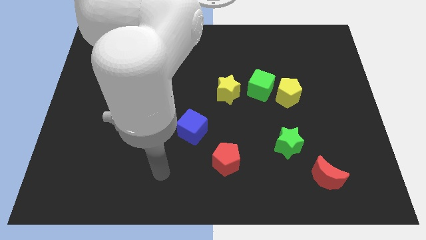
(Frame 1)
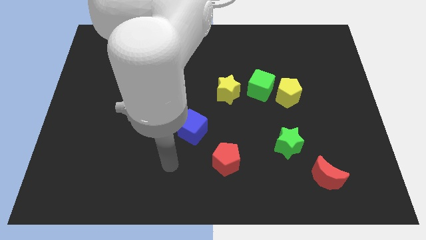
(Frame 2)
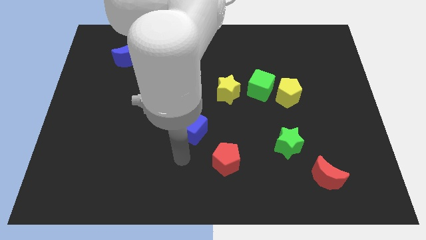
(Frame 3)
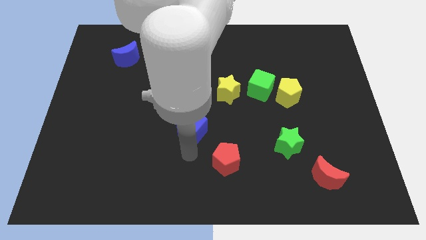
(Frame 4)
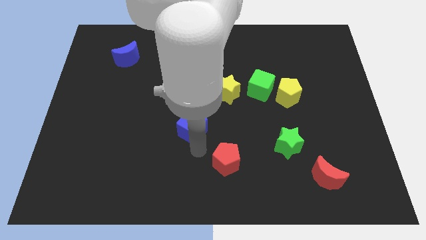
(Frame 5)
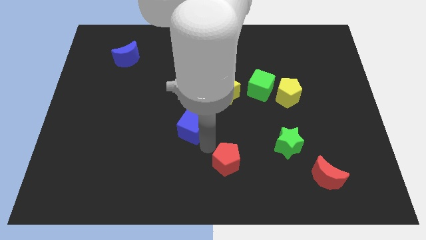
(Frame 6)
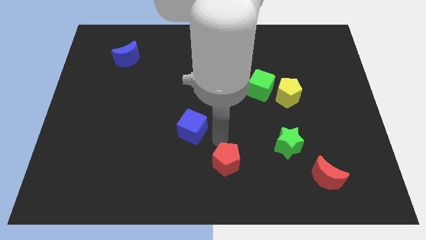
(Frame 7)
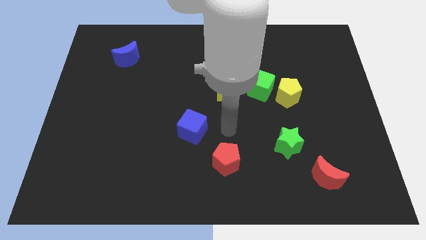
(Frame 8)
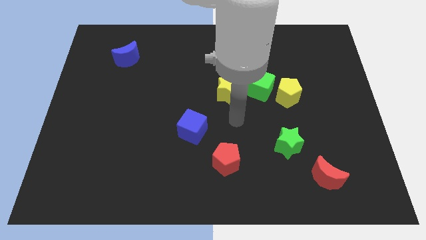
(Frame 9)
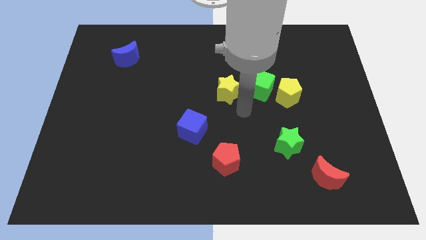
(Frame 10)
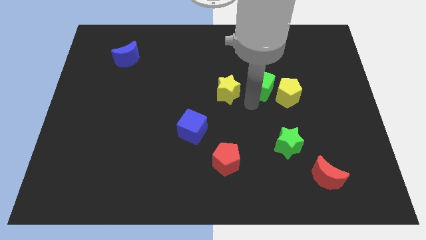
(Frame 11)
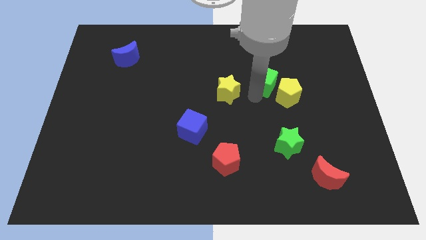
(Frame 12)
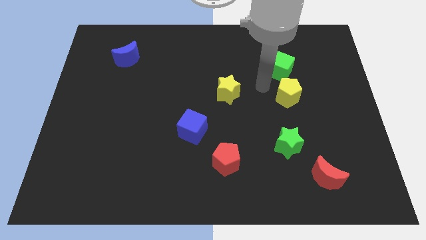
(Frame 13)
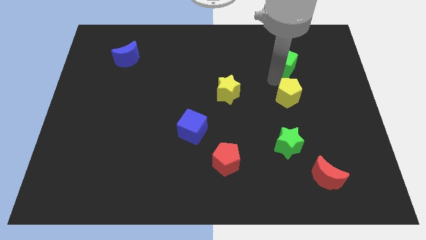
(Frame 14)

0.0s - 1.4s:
pull the yellow pentagon apart from the green cube

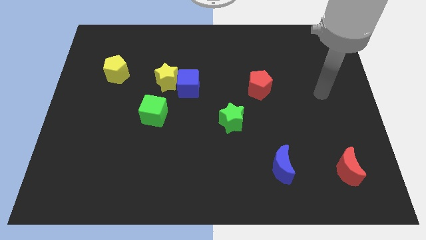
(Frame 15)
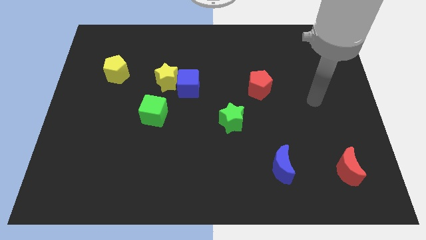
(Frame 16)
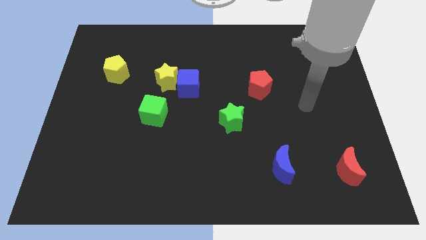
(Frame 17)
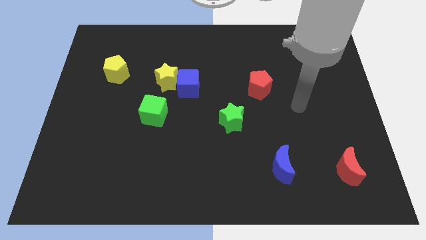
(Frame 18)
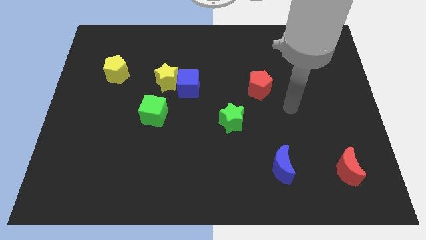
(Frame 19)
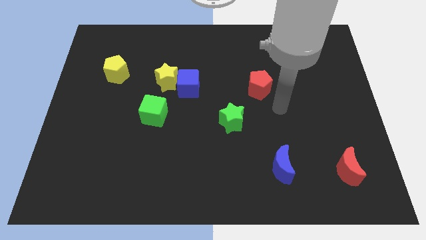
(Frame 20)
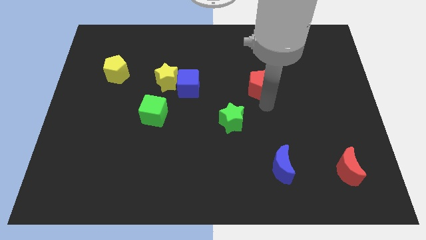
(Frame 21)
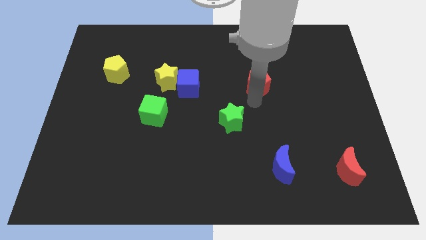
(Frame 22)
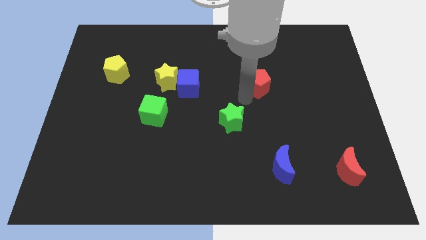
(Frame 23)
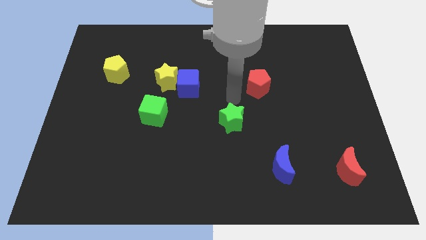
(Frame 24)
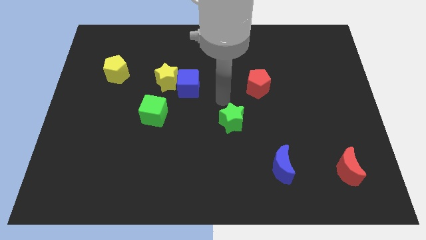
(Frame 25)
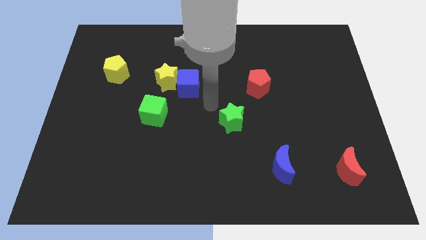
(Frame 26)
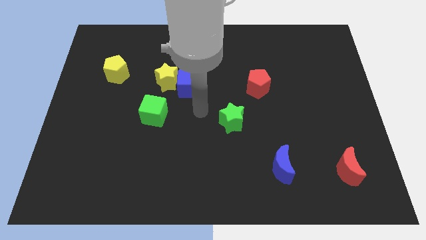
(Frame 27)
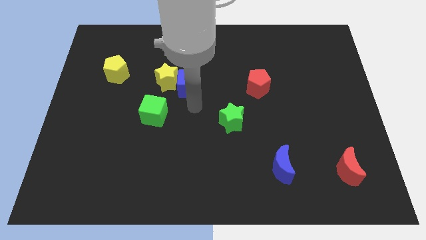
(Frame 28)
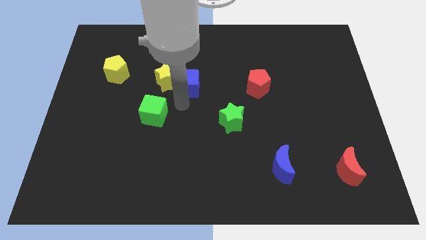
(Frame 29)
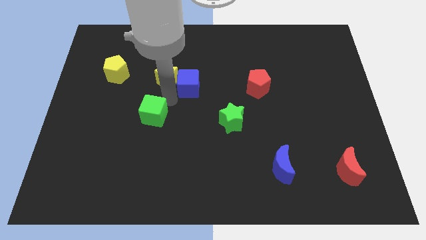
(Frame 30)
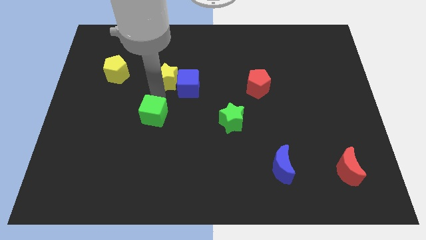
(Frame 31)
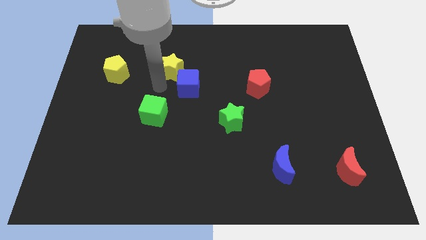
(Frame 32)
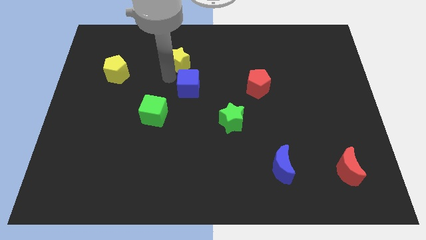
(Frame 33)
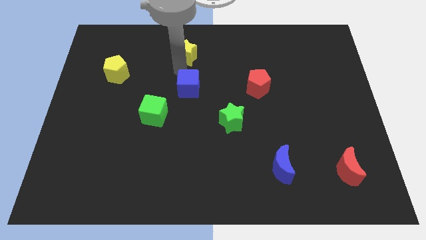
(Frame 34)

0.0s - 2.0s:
move the blue cube away from the yellow star

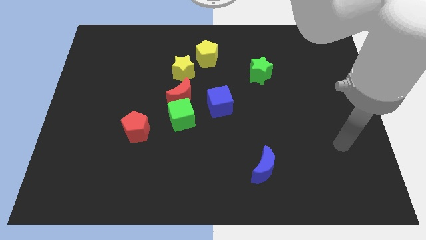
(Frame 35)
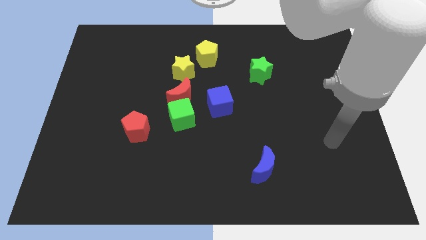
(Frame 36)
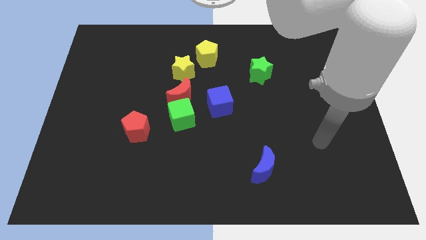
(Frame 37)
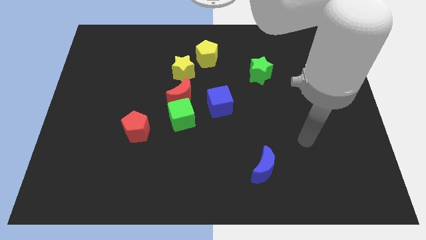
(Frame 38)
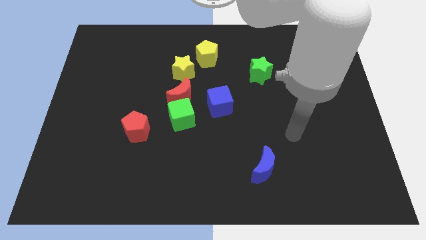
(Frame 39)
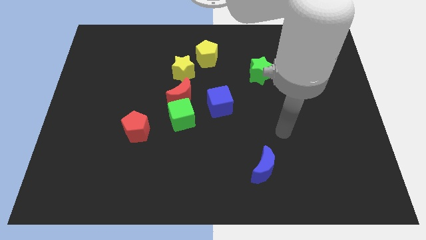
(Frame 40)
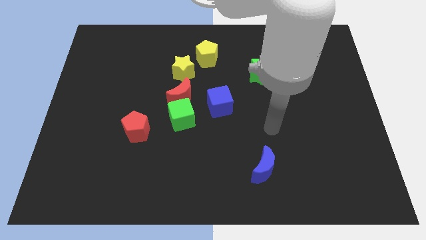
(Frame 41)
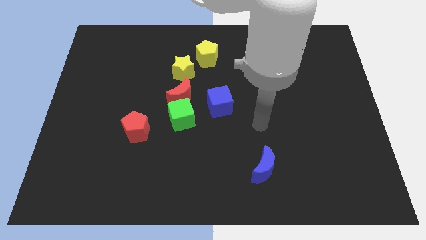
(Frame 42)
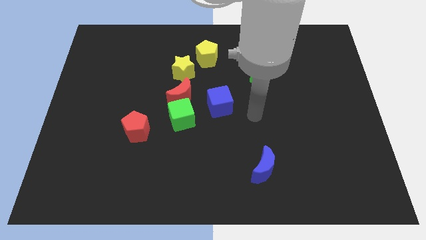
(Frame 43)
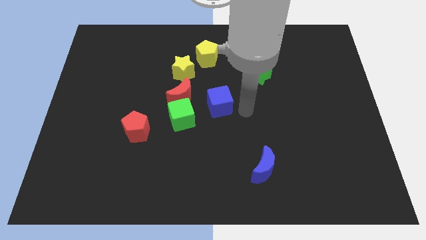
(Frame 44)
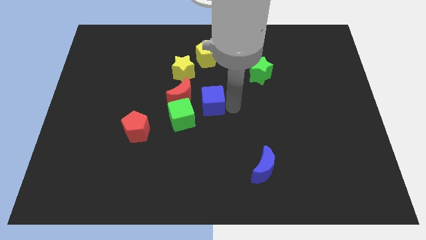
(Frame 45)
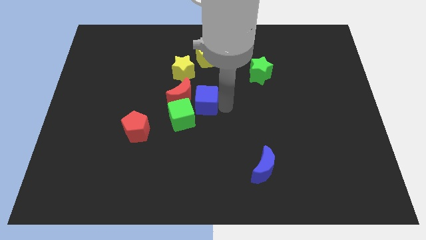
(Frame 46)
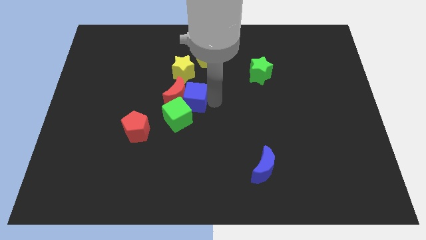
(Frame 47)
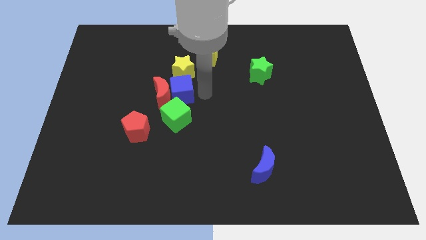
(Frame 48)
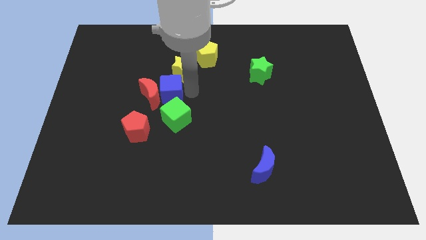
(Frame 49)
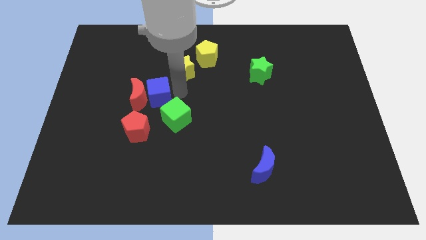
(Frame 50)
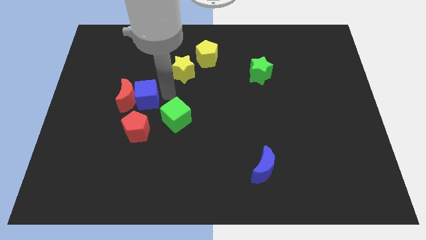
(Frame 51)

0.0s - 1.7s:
pull the red moon apart from the green cube, yellow star, and blue cube

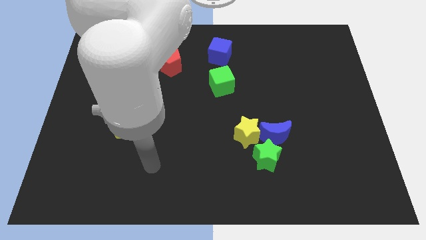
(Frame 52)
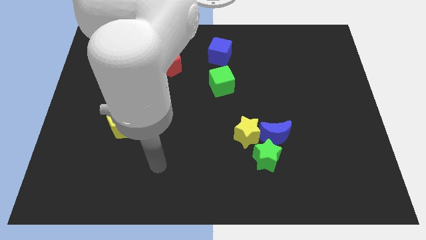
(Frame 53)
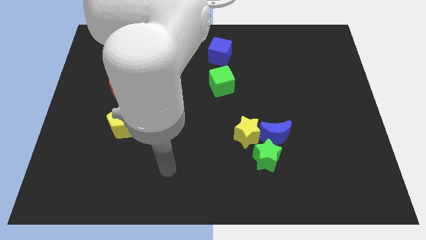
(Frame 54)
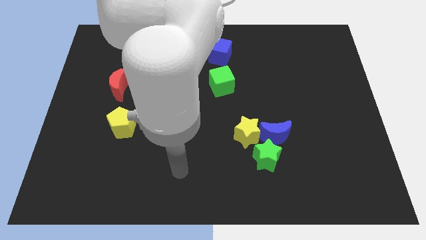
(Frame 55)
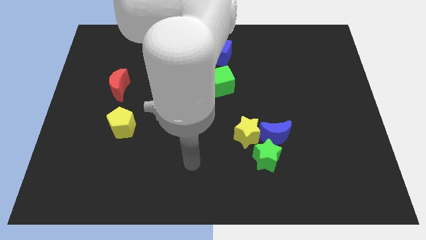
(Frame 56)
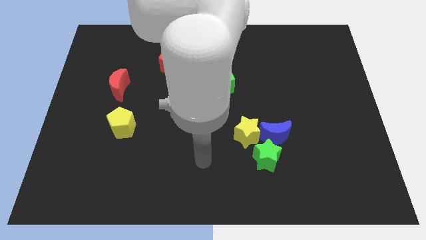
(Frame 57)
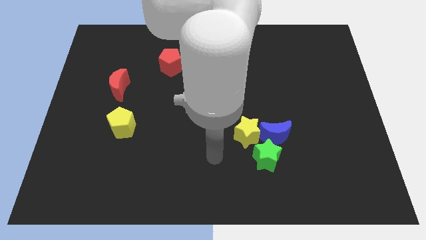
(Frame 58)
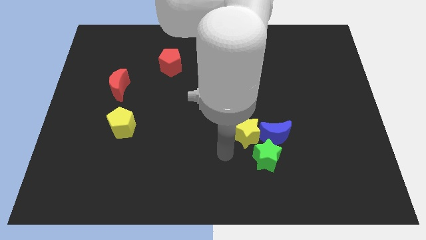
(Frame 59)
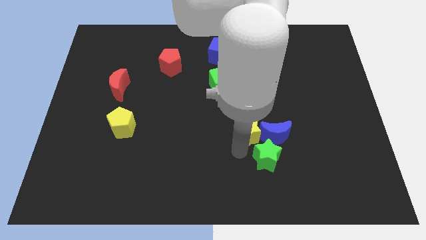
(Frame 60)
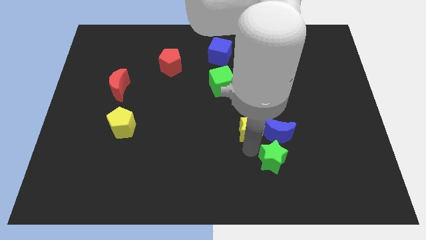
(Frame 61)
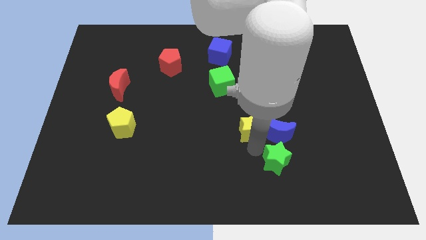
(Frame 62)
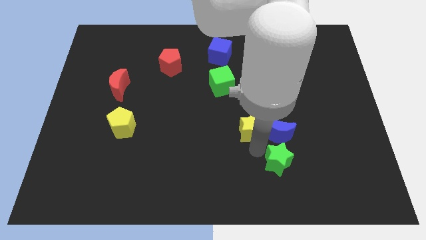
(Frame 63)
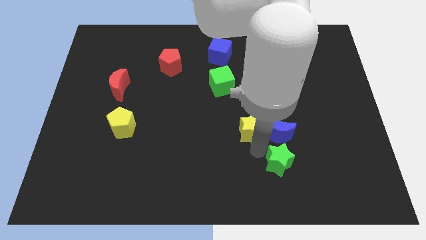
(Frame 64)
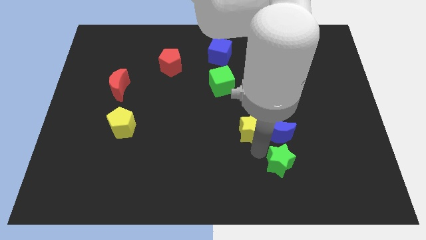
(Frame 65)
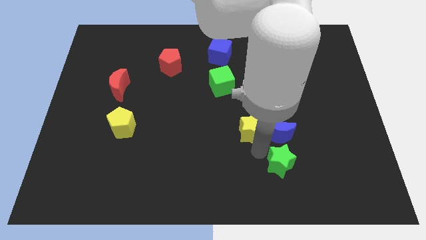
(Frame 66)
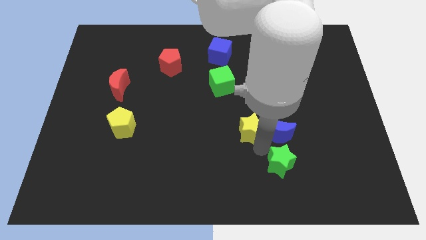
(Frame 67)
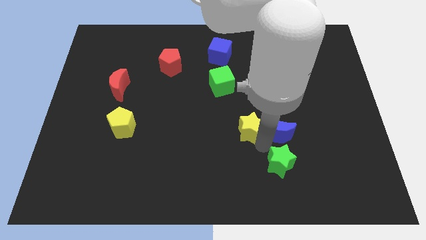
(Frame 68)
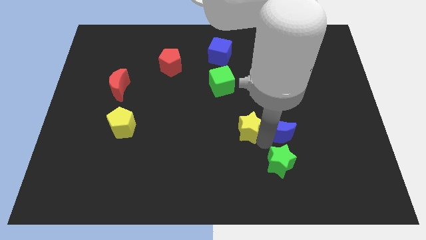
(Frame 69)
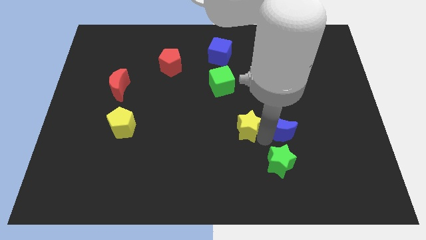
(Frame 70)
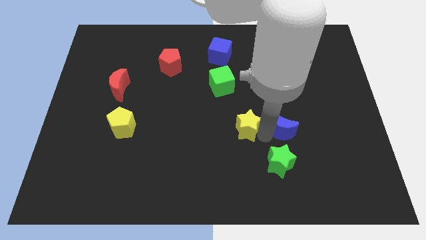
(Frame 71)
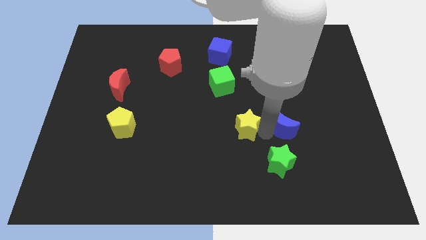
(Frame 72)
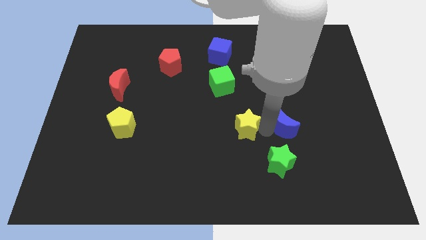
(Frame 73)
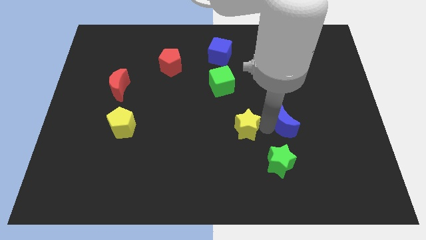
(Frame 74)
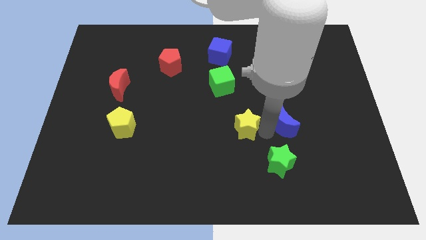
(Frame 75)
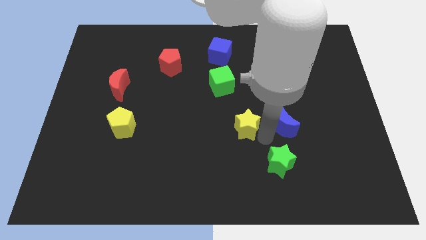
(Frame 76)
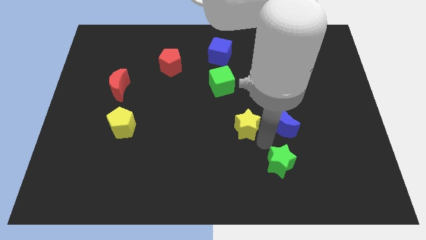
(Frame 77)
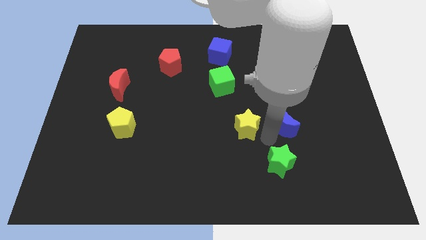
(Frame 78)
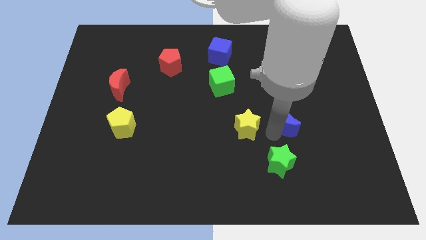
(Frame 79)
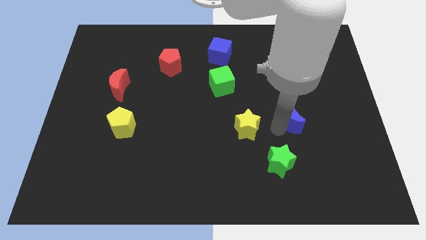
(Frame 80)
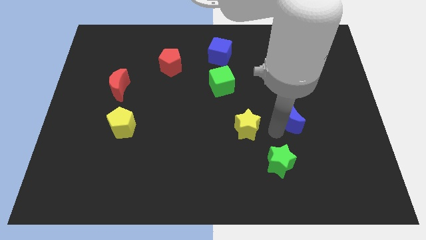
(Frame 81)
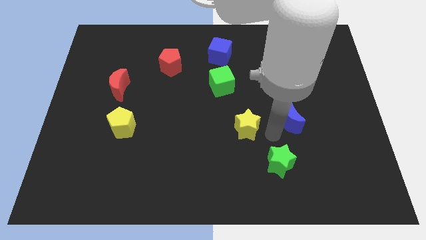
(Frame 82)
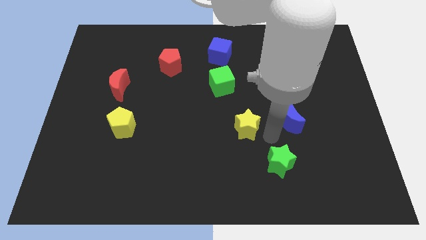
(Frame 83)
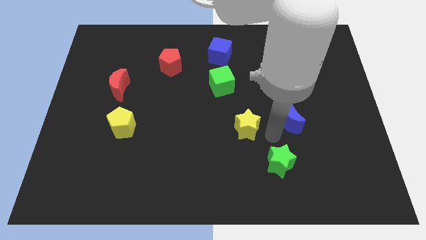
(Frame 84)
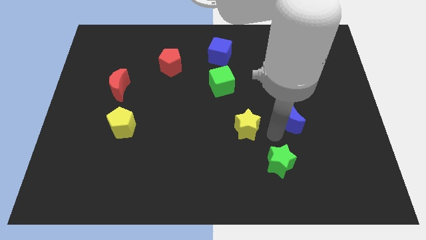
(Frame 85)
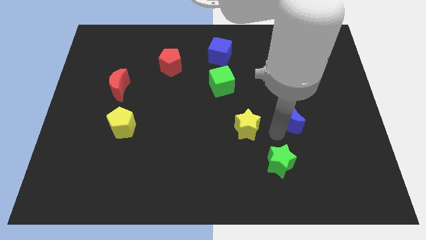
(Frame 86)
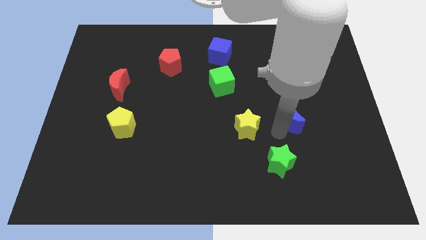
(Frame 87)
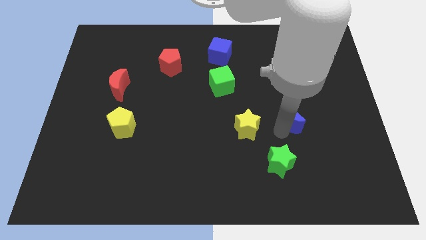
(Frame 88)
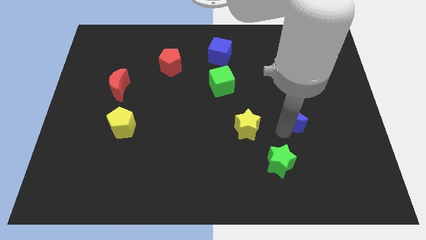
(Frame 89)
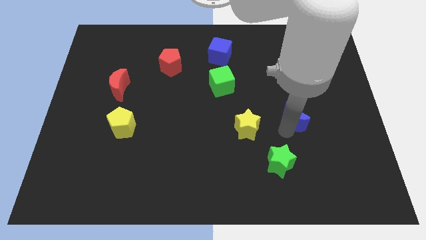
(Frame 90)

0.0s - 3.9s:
pull the blue moon apart from the yellow star and green star

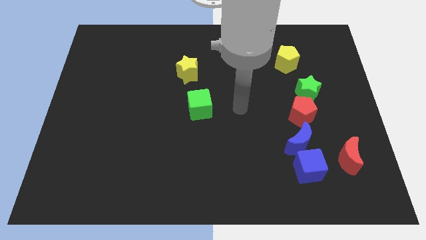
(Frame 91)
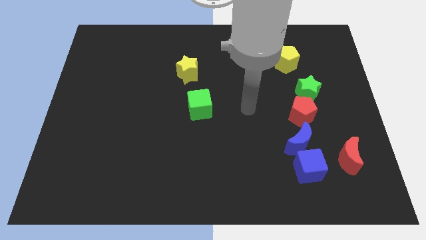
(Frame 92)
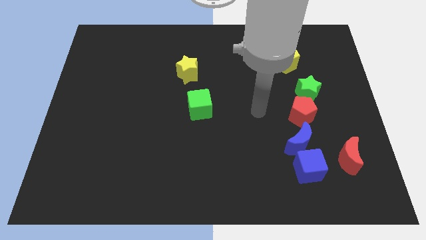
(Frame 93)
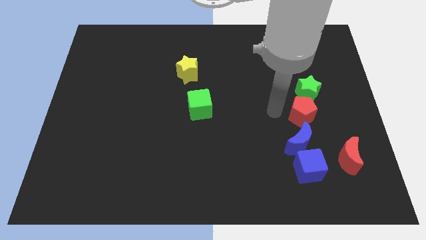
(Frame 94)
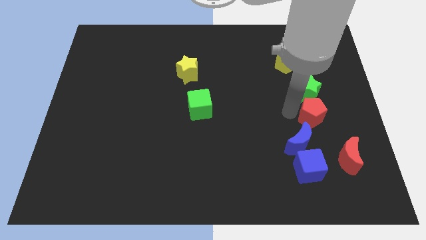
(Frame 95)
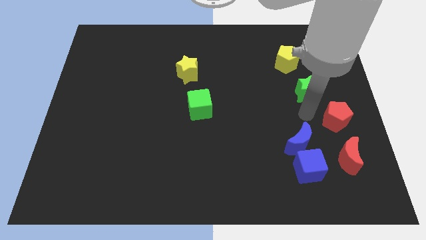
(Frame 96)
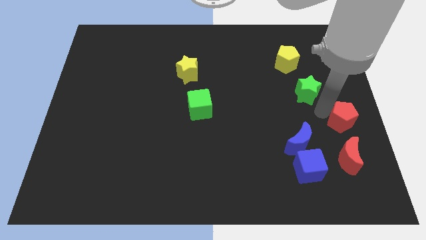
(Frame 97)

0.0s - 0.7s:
move the green star away from the red pentagon
